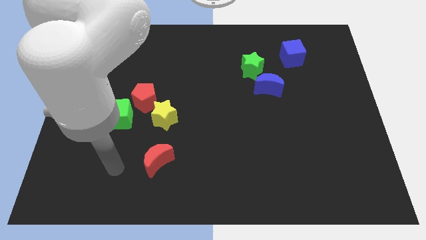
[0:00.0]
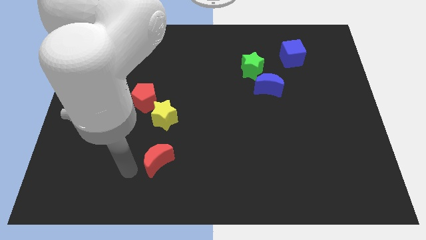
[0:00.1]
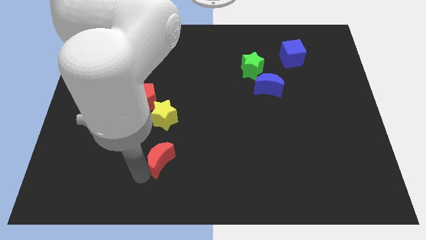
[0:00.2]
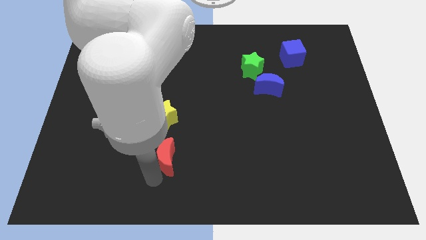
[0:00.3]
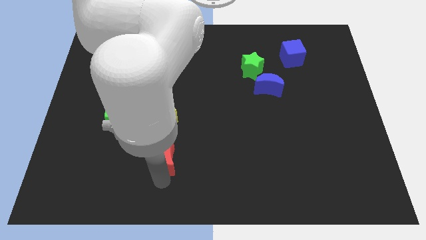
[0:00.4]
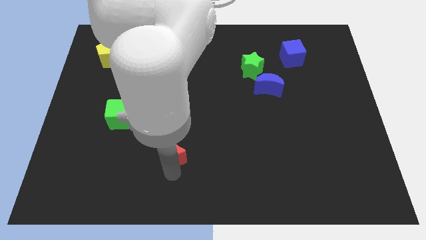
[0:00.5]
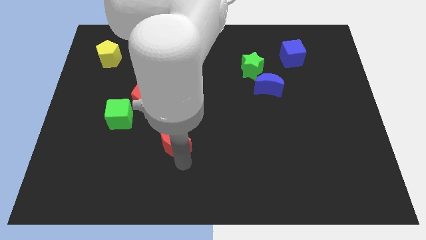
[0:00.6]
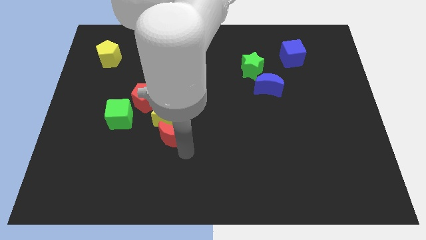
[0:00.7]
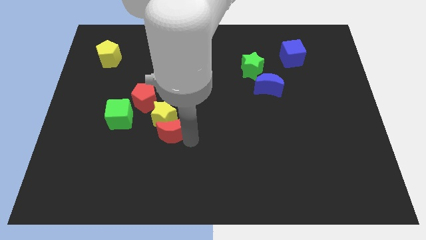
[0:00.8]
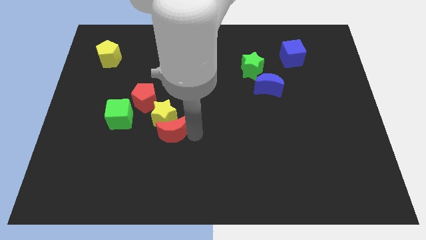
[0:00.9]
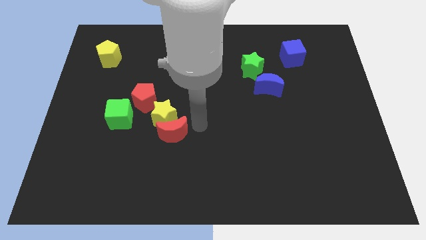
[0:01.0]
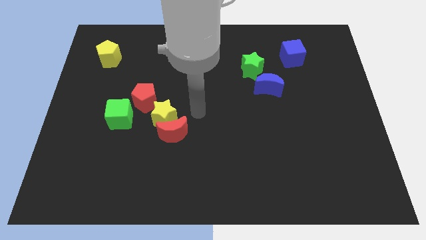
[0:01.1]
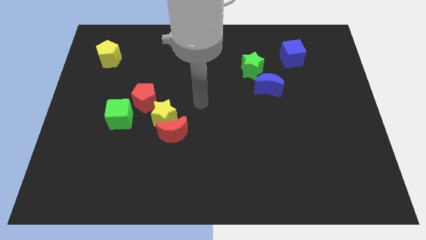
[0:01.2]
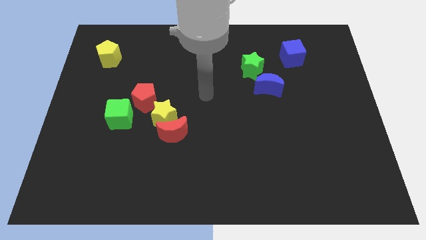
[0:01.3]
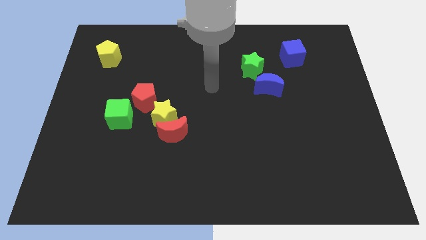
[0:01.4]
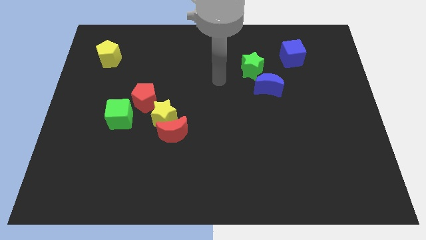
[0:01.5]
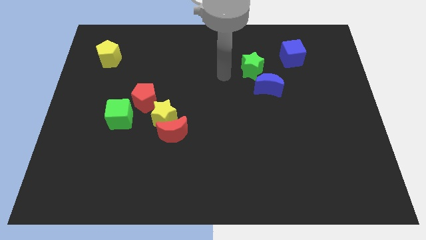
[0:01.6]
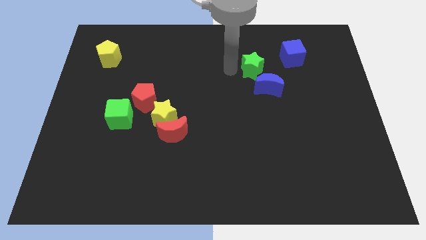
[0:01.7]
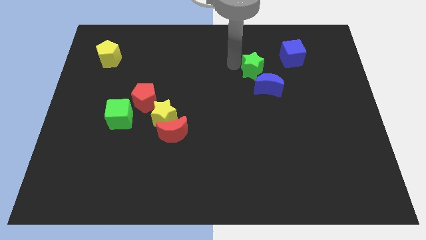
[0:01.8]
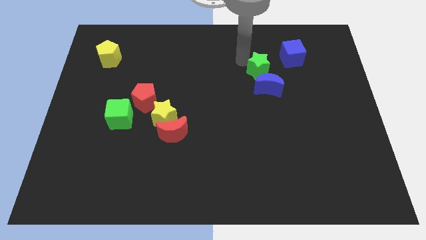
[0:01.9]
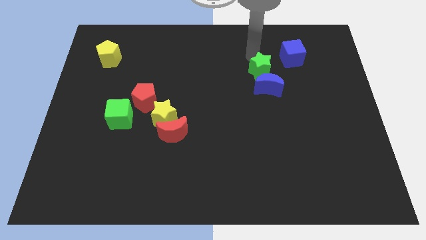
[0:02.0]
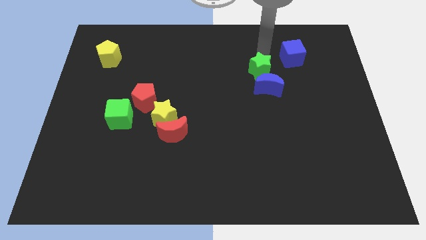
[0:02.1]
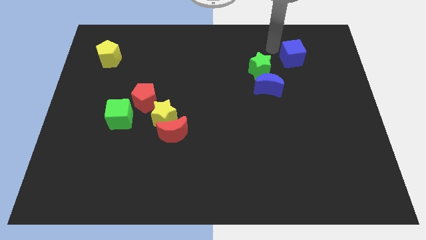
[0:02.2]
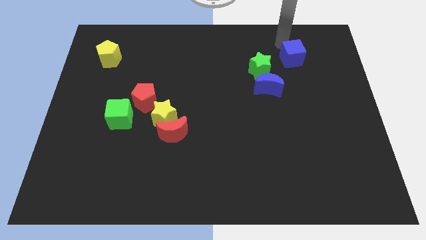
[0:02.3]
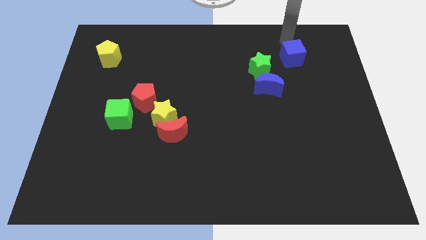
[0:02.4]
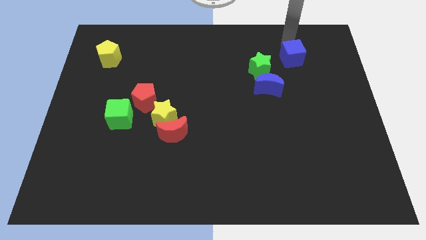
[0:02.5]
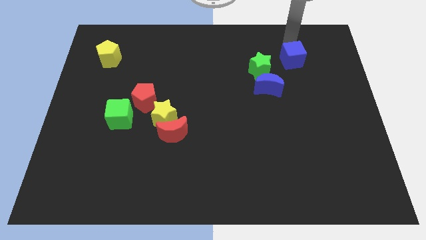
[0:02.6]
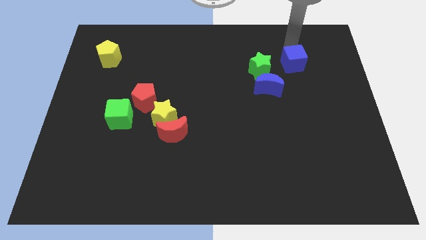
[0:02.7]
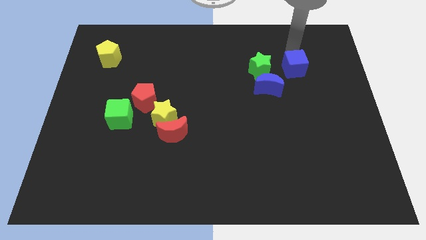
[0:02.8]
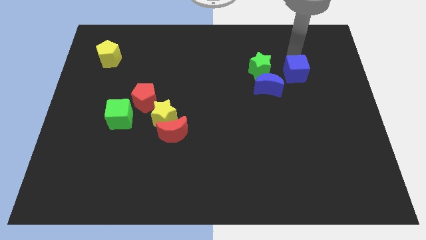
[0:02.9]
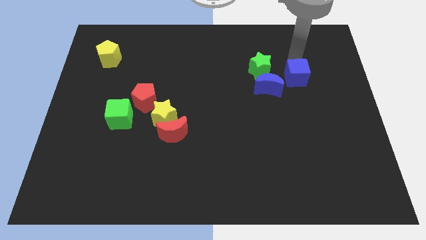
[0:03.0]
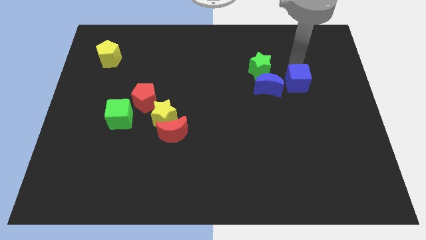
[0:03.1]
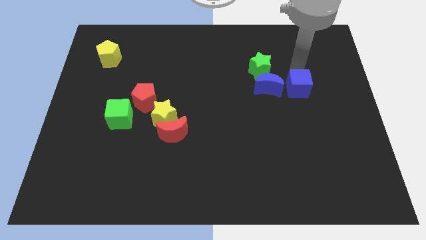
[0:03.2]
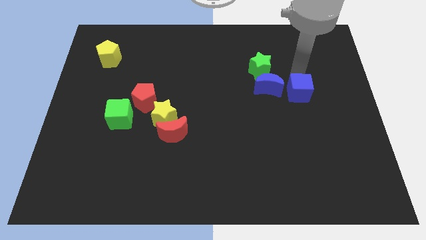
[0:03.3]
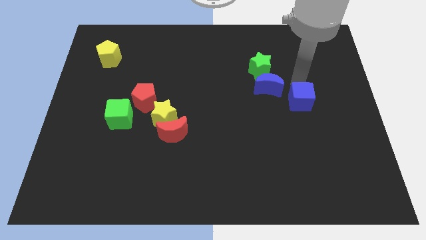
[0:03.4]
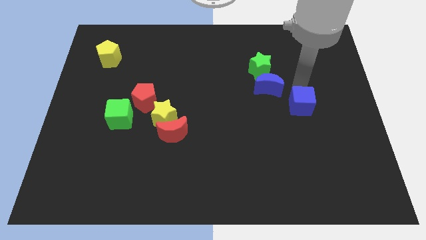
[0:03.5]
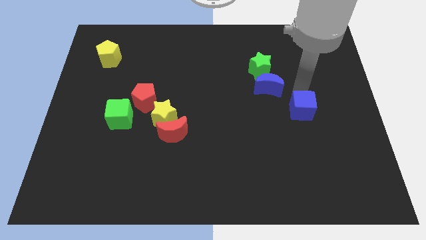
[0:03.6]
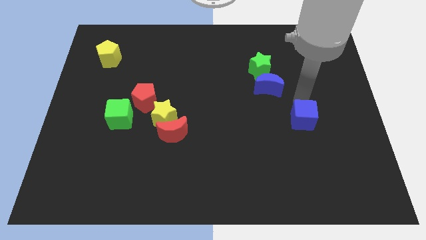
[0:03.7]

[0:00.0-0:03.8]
push the blue cube down

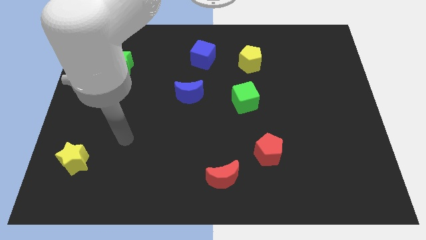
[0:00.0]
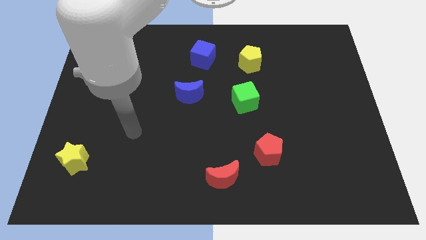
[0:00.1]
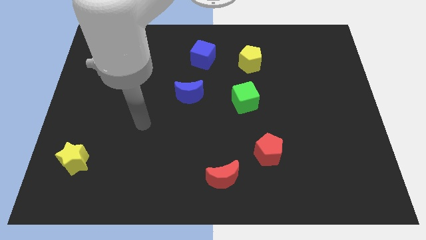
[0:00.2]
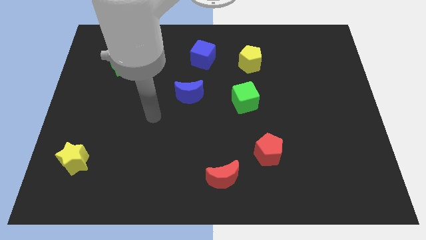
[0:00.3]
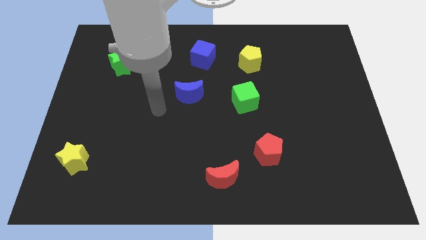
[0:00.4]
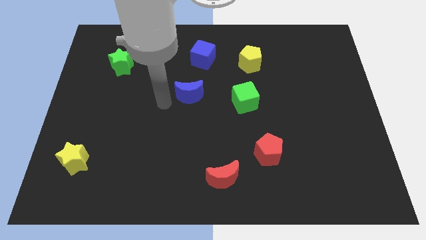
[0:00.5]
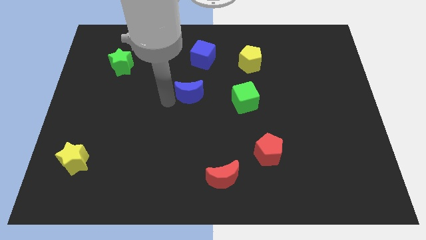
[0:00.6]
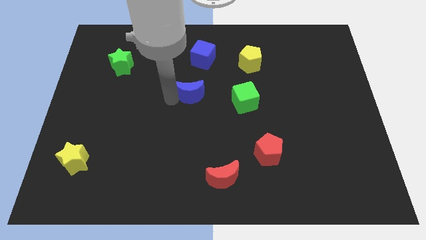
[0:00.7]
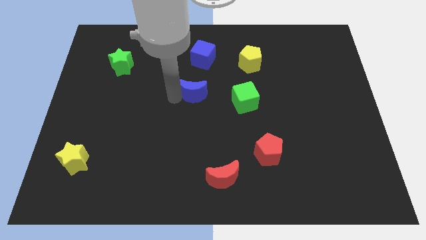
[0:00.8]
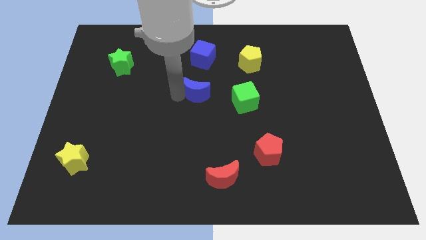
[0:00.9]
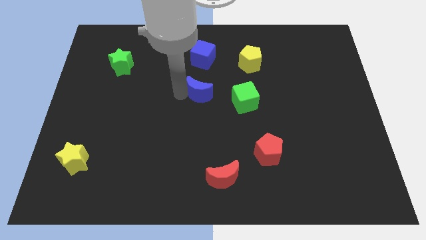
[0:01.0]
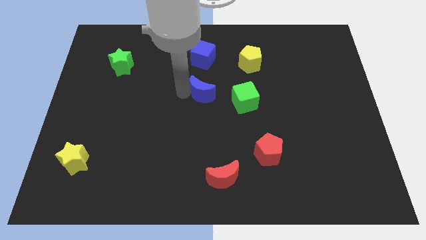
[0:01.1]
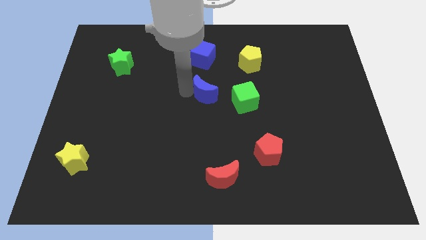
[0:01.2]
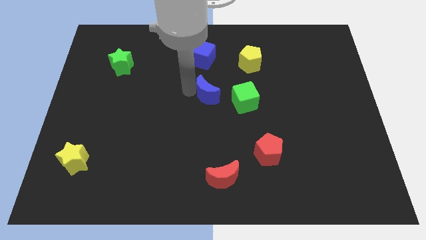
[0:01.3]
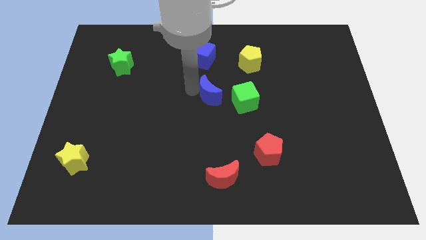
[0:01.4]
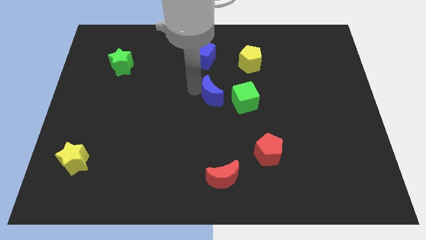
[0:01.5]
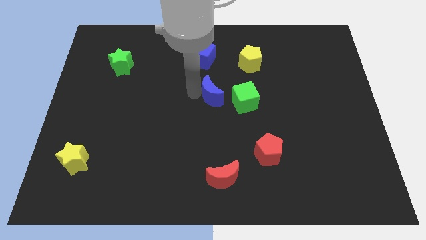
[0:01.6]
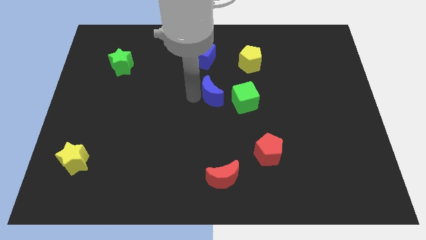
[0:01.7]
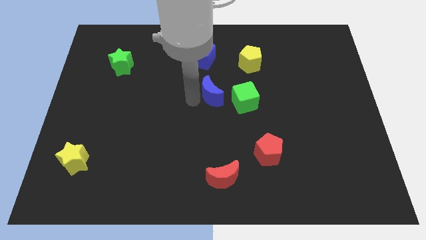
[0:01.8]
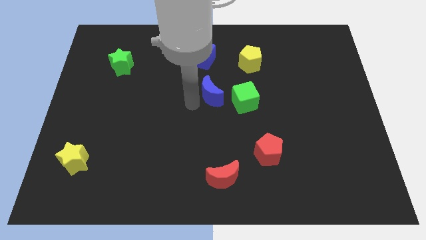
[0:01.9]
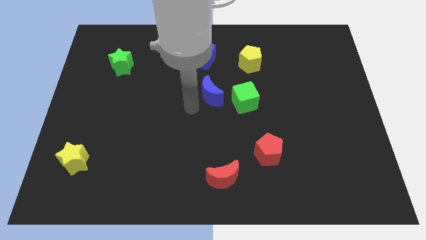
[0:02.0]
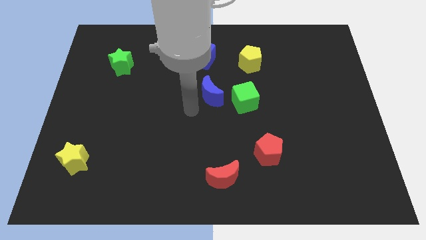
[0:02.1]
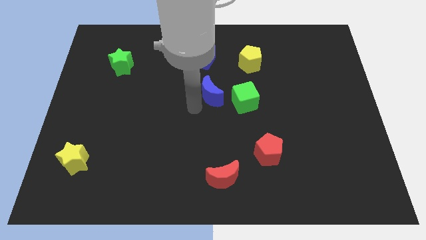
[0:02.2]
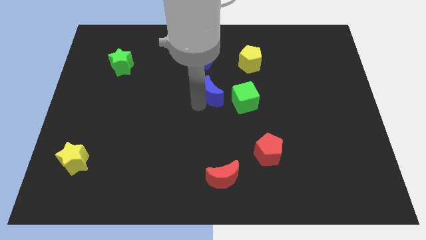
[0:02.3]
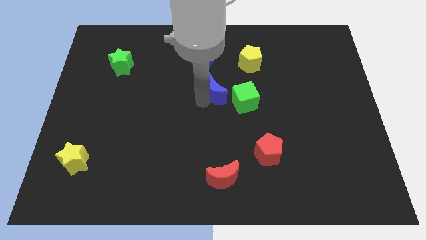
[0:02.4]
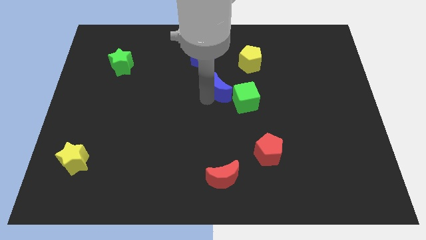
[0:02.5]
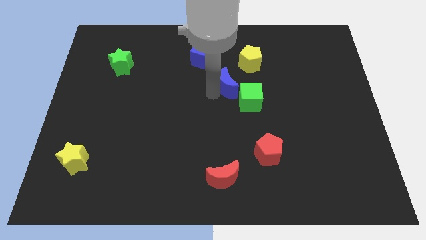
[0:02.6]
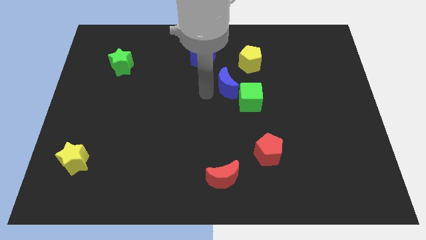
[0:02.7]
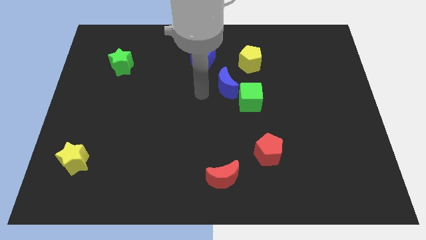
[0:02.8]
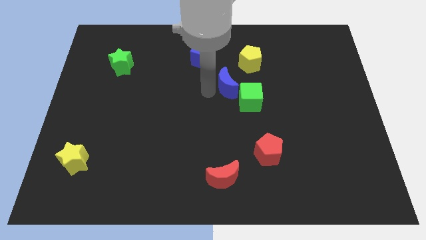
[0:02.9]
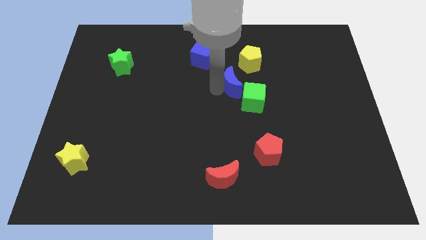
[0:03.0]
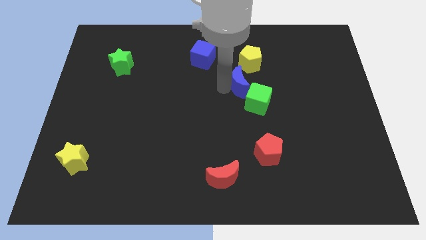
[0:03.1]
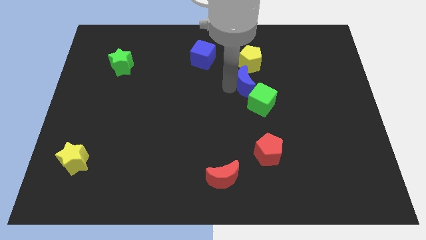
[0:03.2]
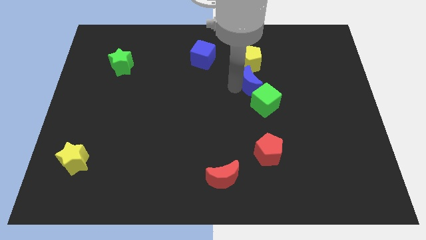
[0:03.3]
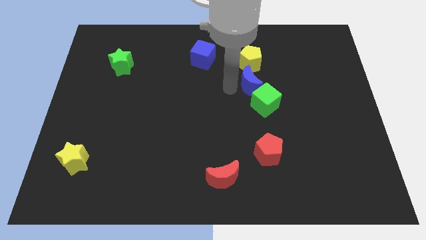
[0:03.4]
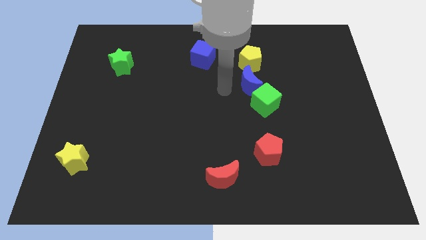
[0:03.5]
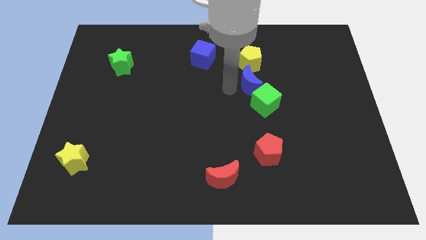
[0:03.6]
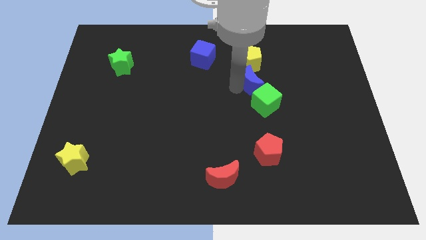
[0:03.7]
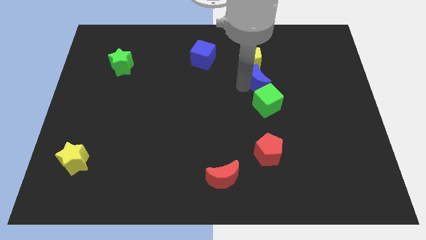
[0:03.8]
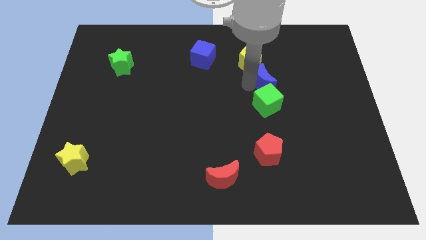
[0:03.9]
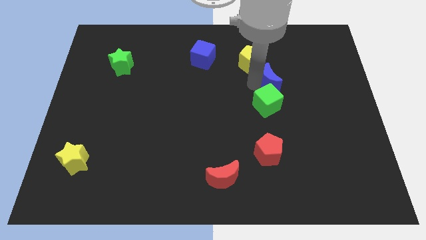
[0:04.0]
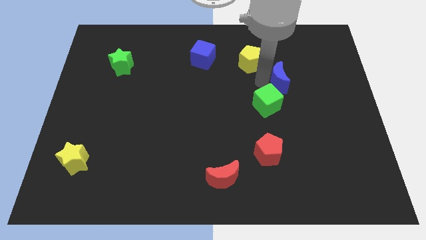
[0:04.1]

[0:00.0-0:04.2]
push the blue moon to the right
